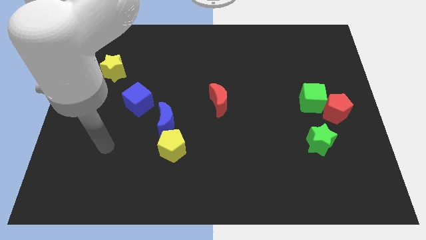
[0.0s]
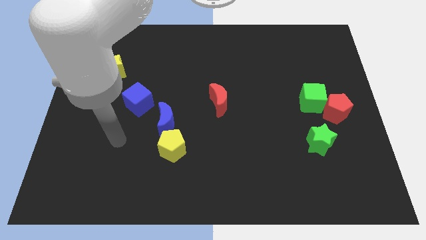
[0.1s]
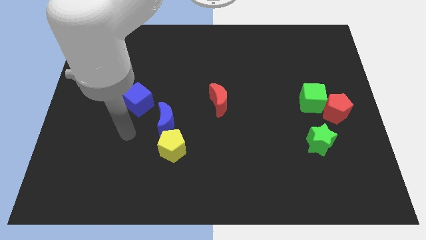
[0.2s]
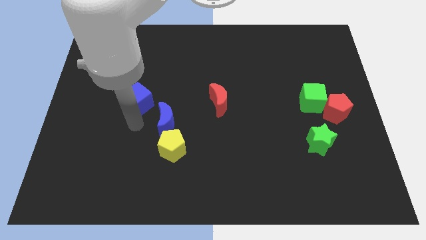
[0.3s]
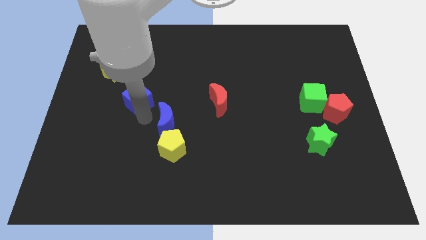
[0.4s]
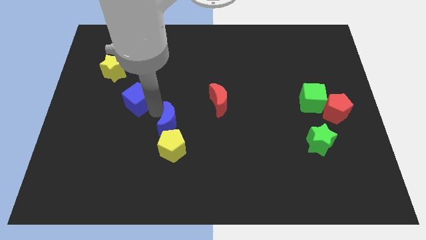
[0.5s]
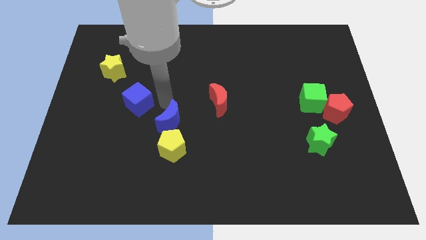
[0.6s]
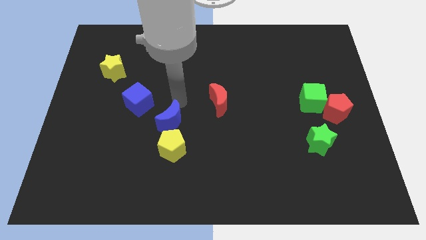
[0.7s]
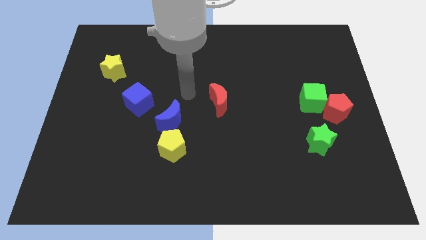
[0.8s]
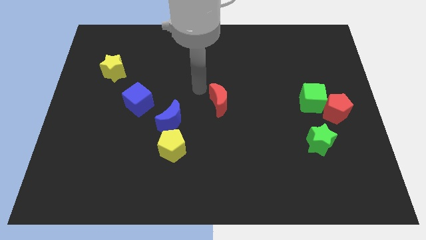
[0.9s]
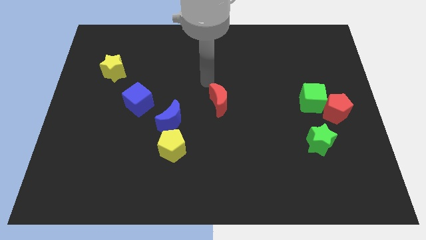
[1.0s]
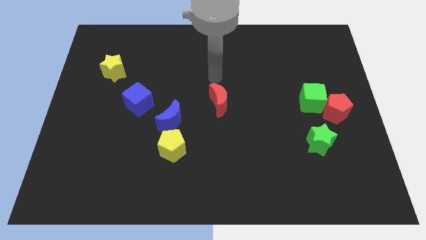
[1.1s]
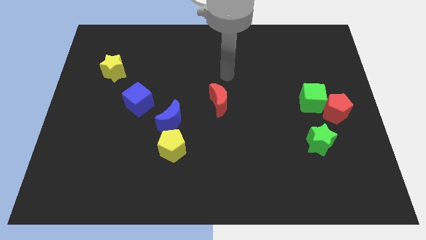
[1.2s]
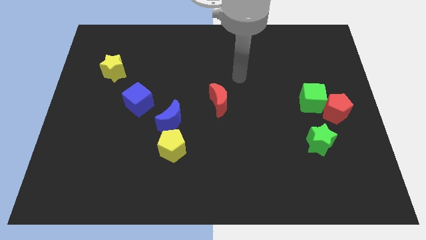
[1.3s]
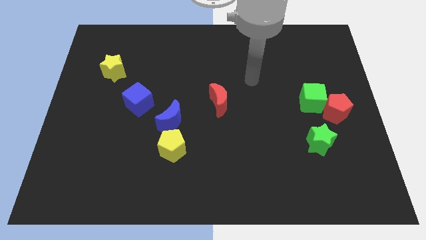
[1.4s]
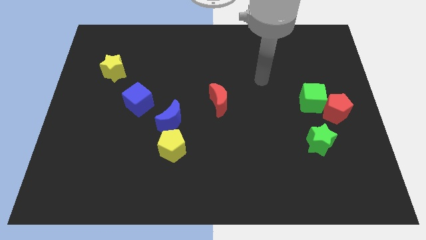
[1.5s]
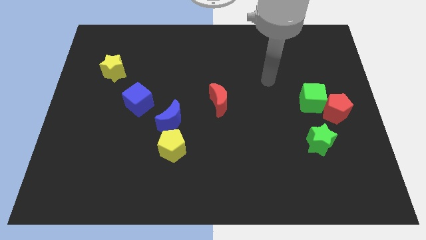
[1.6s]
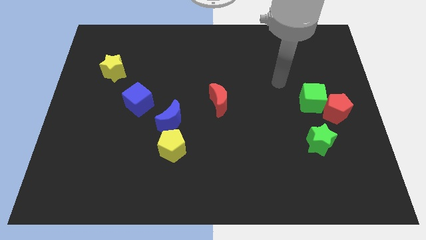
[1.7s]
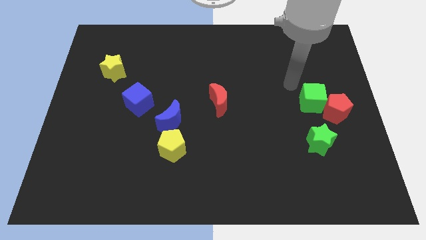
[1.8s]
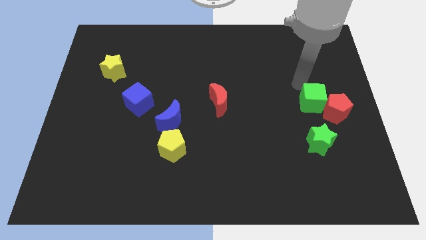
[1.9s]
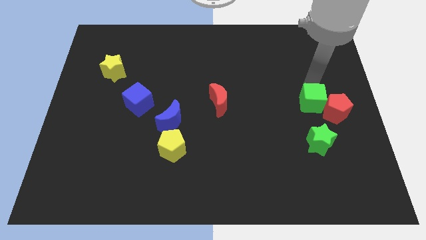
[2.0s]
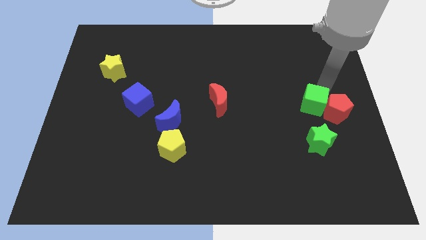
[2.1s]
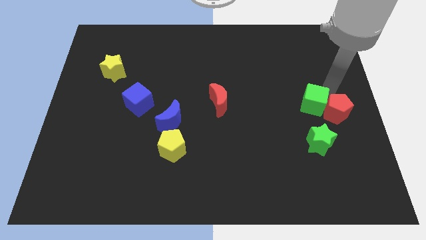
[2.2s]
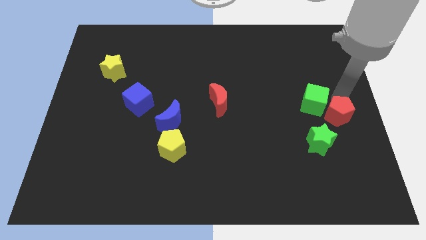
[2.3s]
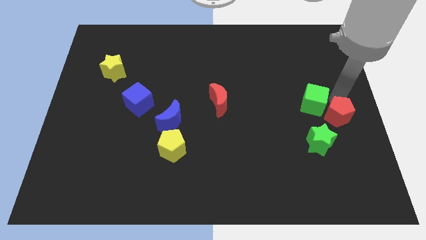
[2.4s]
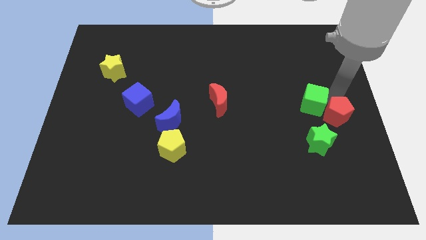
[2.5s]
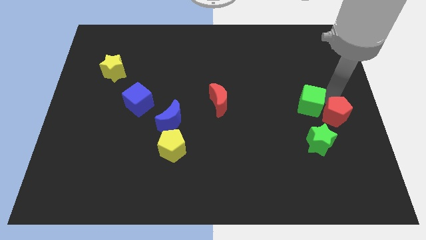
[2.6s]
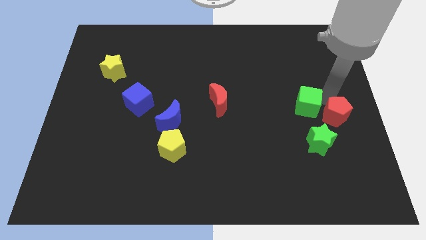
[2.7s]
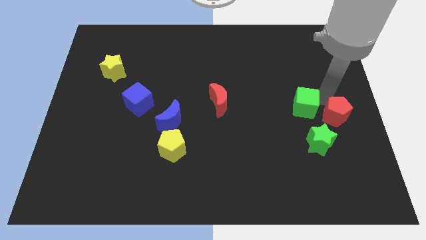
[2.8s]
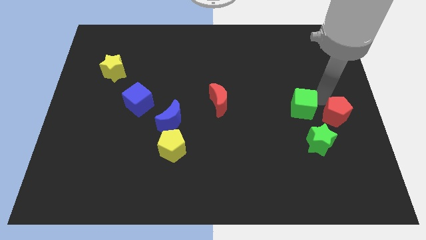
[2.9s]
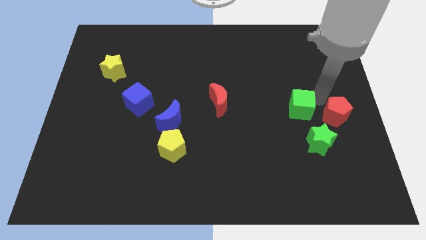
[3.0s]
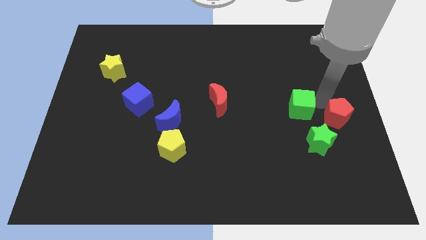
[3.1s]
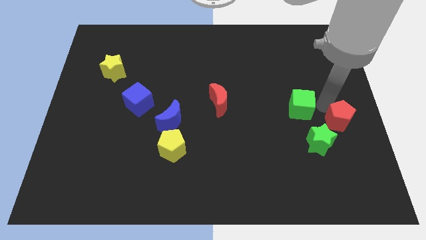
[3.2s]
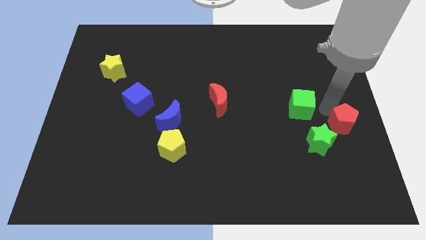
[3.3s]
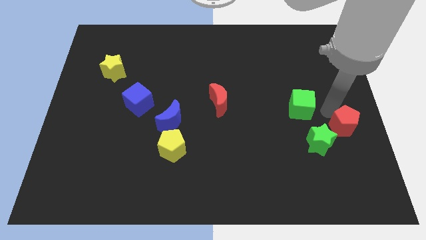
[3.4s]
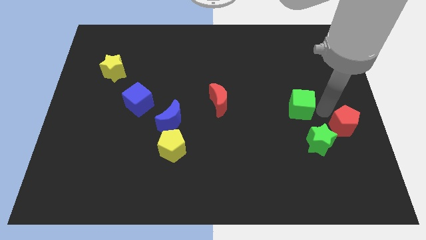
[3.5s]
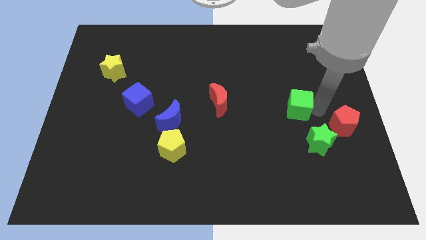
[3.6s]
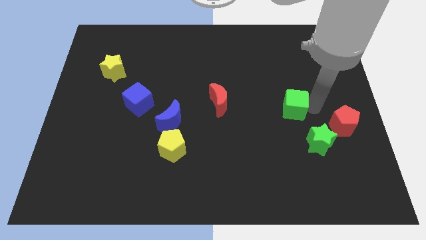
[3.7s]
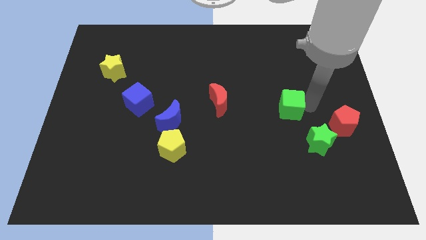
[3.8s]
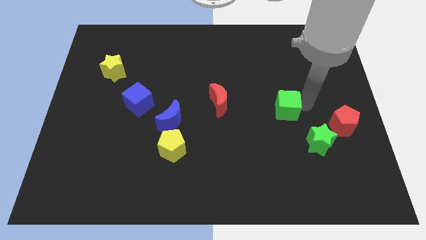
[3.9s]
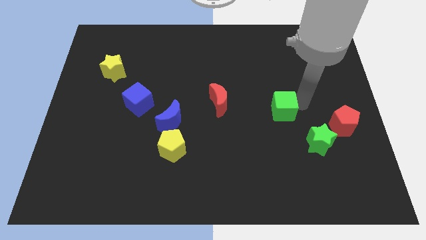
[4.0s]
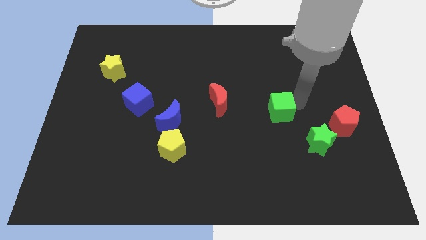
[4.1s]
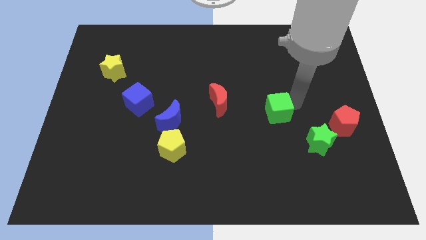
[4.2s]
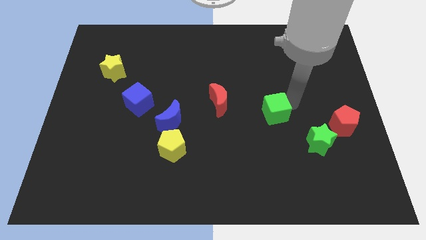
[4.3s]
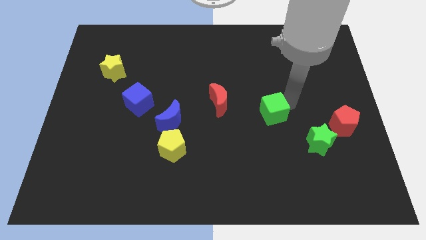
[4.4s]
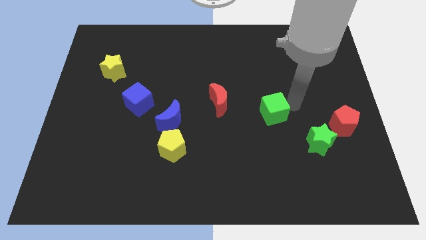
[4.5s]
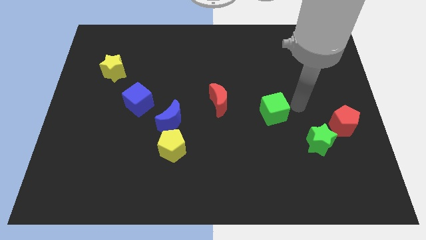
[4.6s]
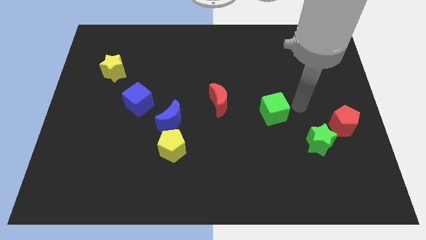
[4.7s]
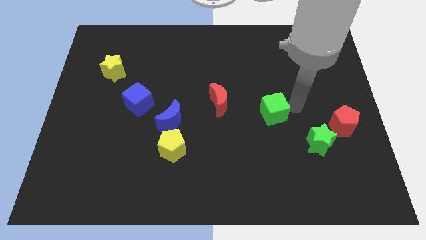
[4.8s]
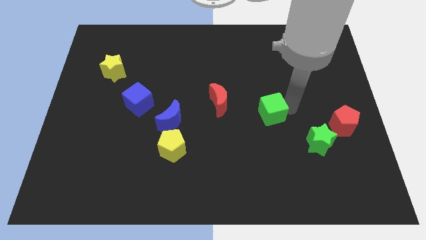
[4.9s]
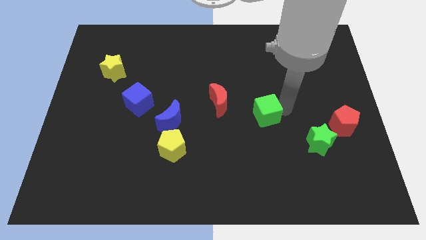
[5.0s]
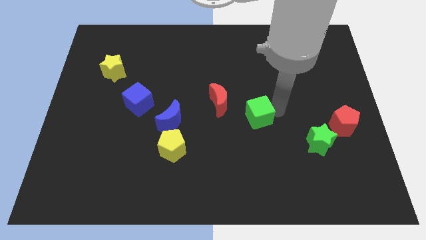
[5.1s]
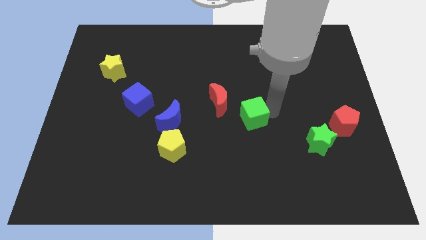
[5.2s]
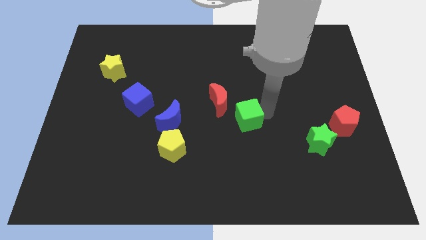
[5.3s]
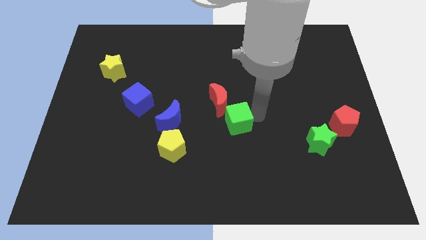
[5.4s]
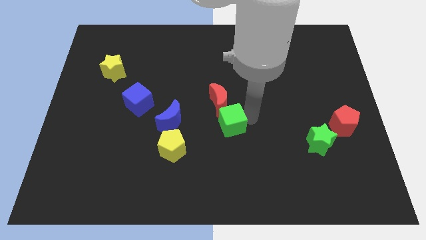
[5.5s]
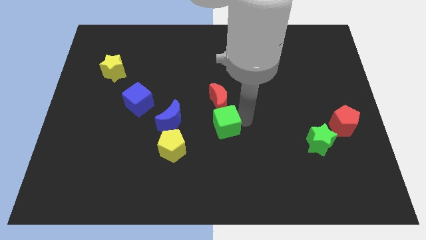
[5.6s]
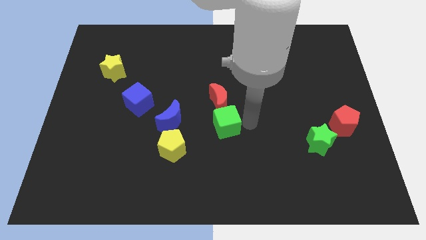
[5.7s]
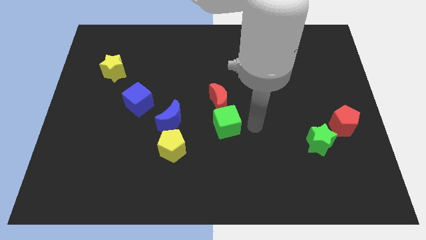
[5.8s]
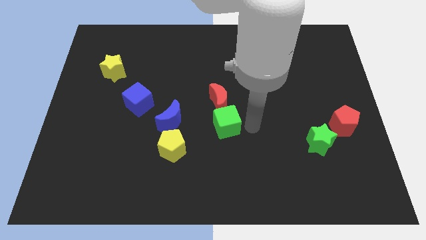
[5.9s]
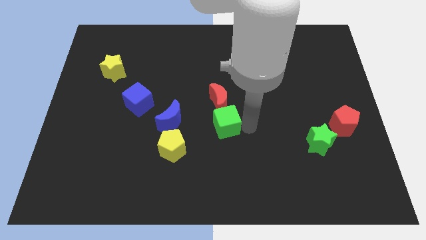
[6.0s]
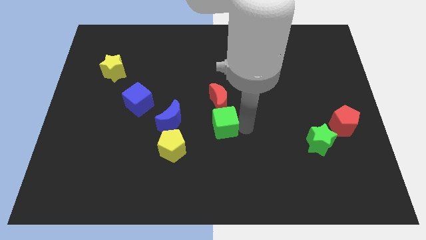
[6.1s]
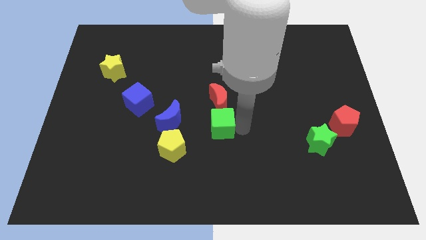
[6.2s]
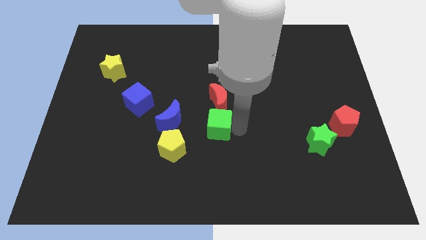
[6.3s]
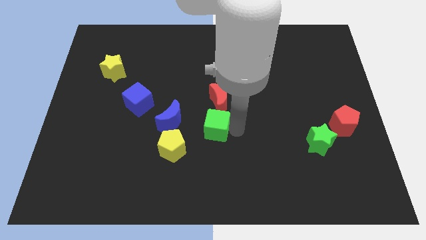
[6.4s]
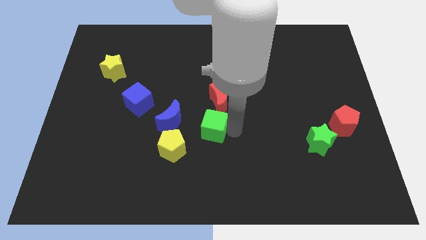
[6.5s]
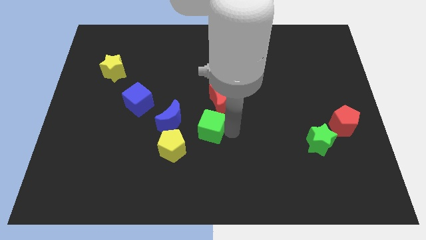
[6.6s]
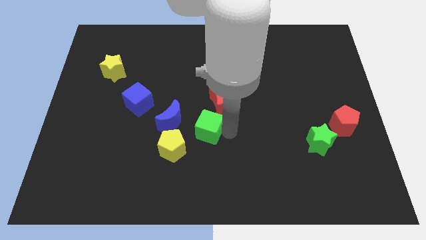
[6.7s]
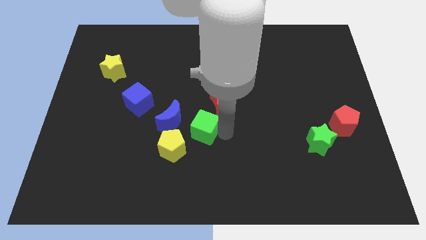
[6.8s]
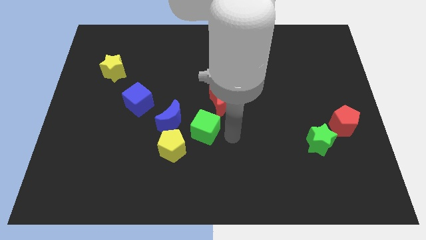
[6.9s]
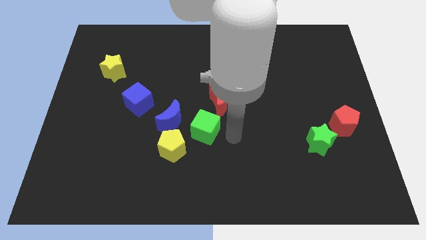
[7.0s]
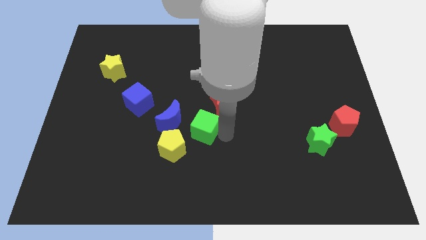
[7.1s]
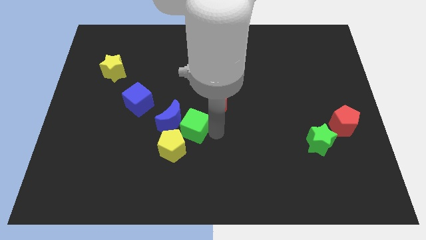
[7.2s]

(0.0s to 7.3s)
move the green cube towards the blue moon

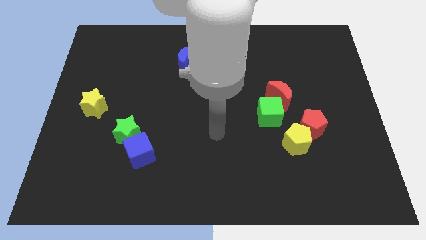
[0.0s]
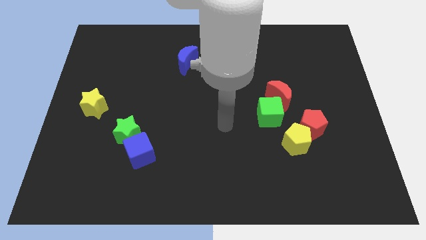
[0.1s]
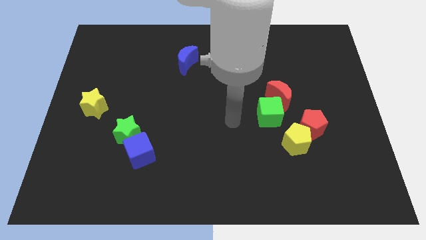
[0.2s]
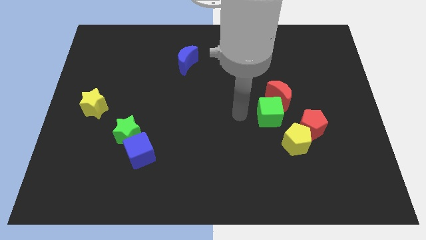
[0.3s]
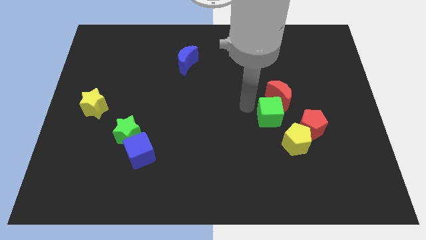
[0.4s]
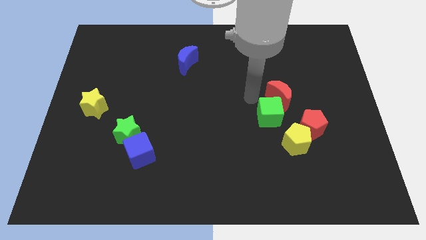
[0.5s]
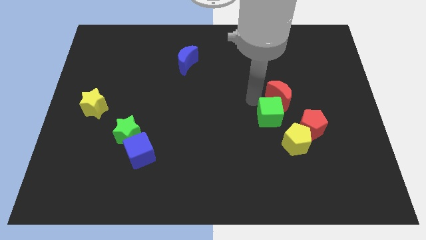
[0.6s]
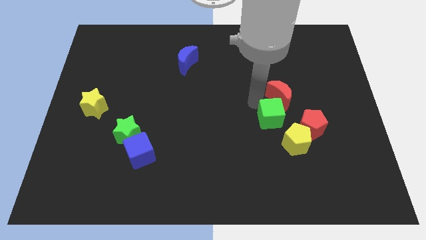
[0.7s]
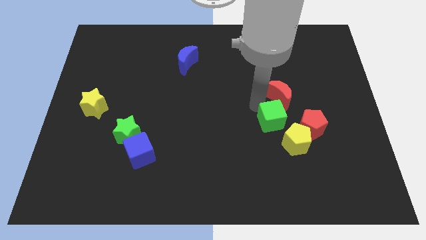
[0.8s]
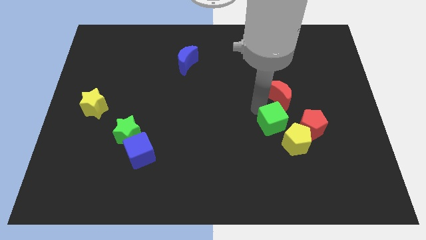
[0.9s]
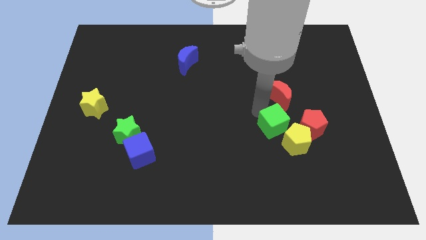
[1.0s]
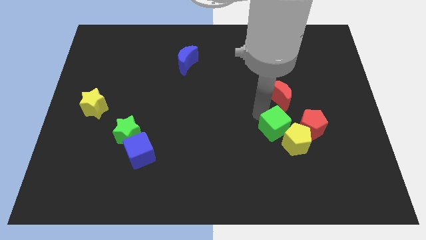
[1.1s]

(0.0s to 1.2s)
push the green cube to the yellow pentagon
